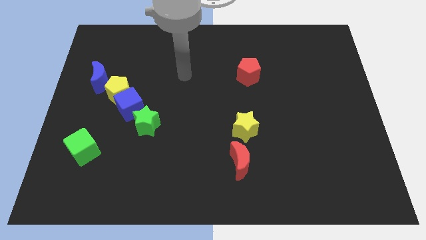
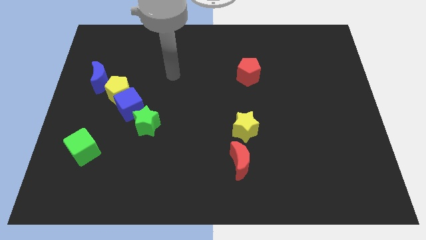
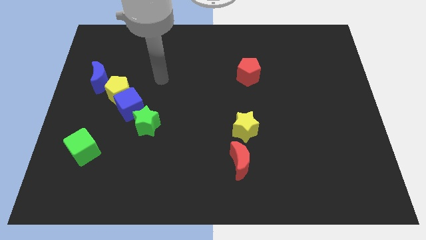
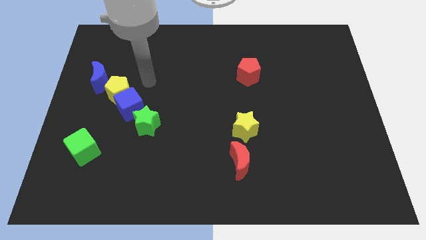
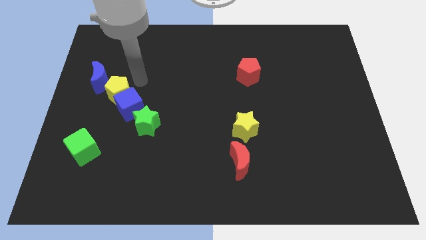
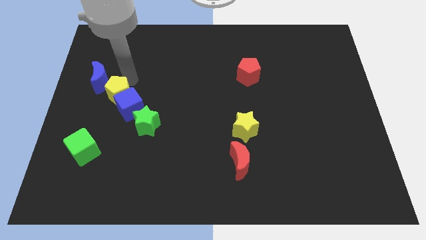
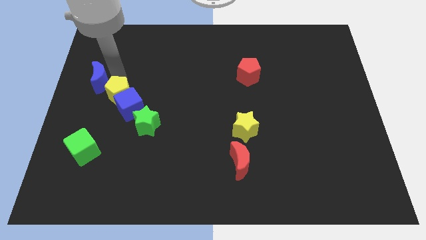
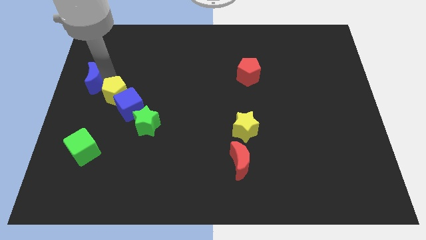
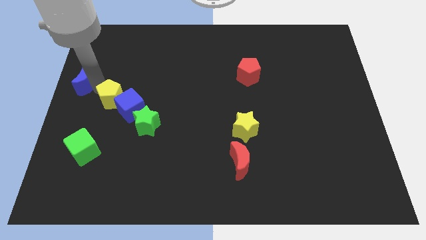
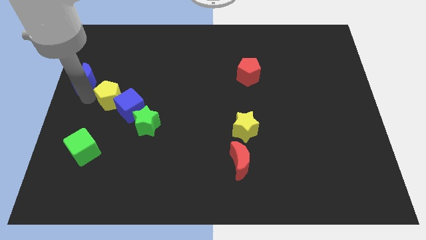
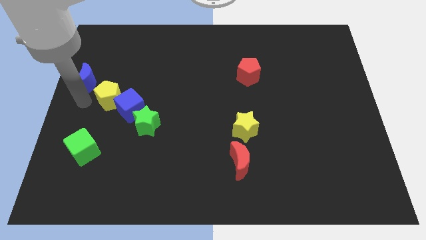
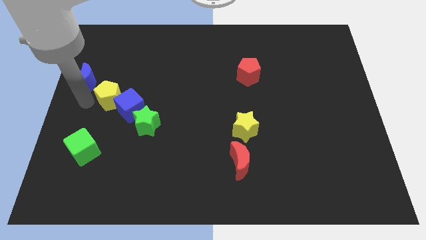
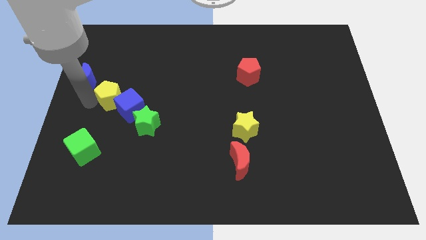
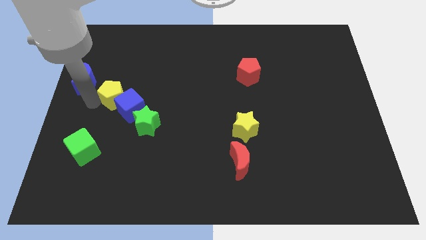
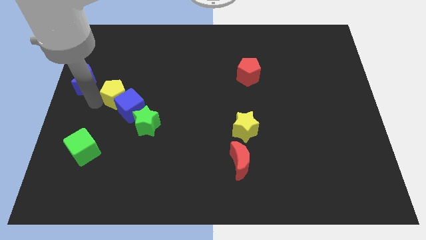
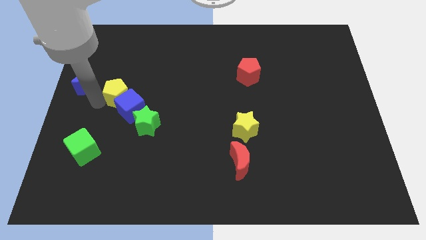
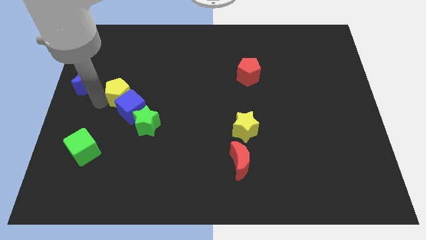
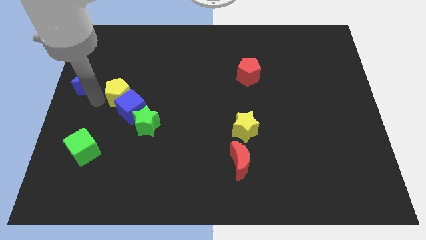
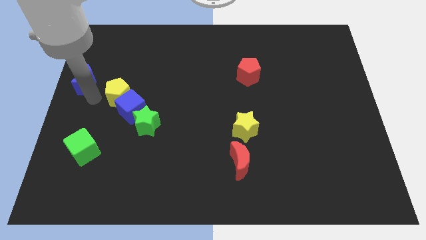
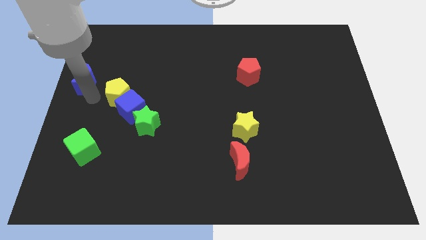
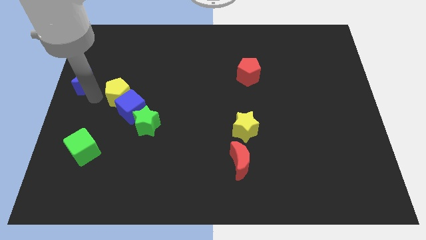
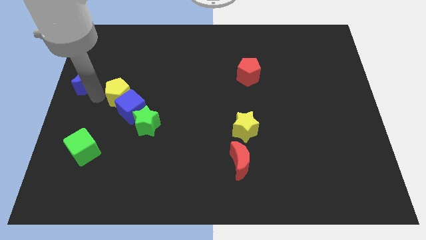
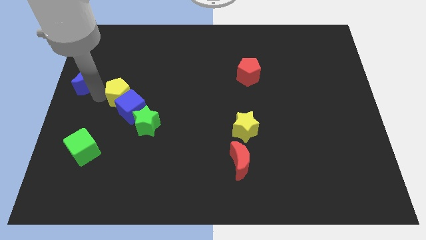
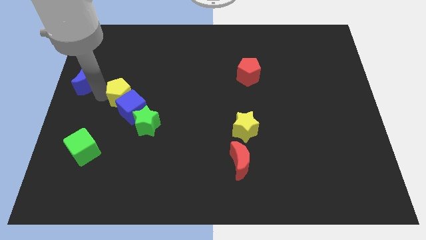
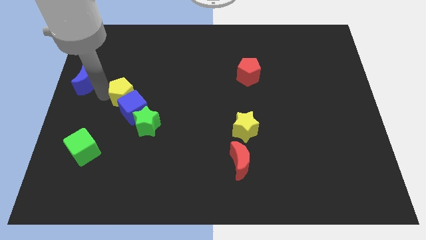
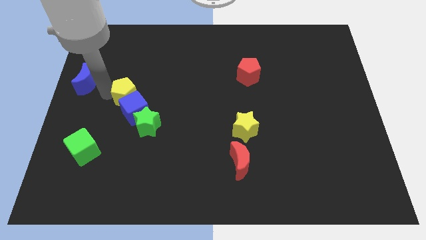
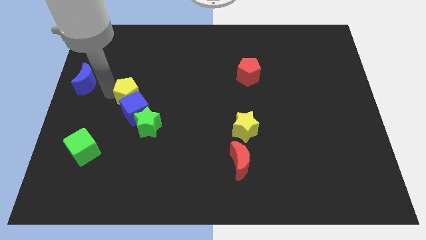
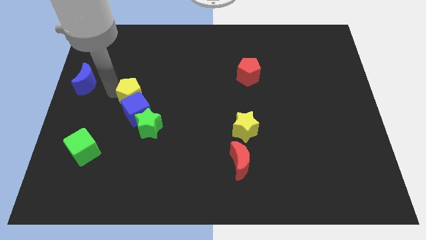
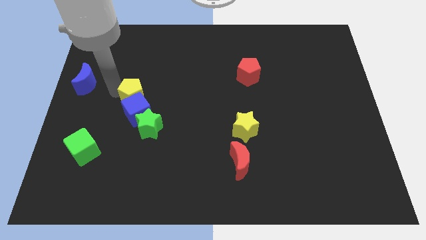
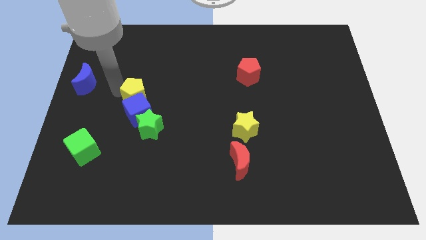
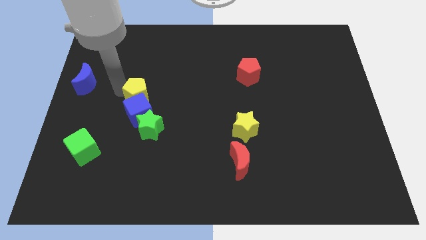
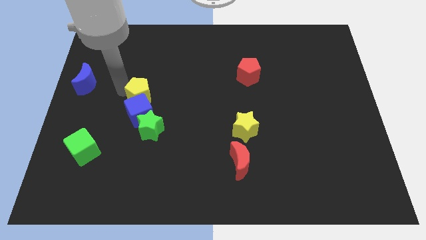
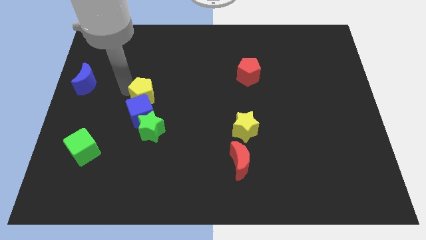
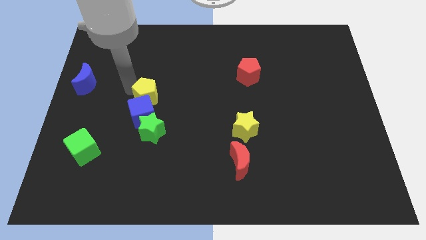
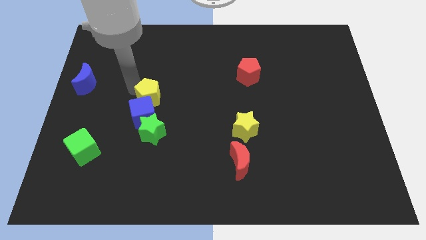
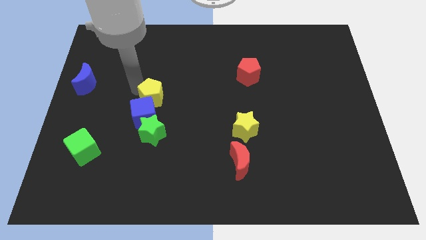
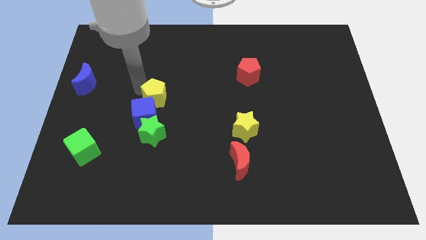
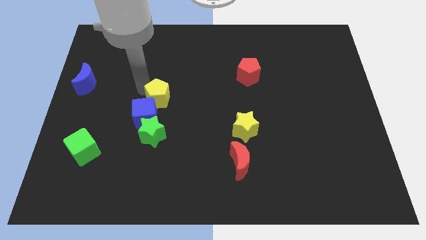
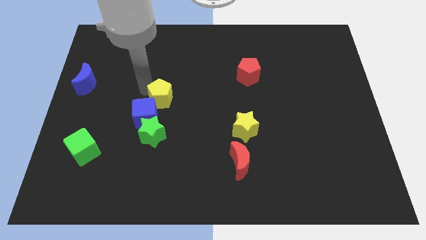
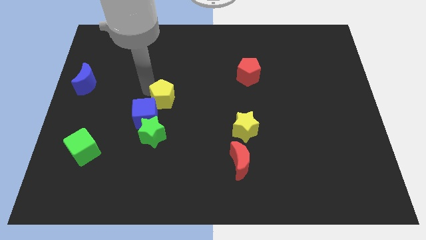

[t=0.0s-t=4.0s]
push the yellow pentagon a little downwards and to the right diagonally

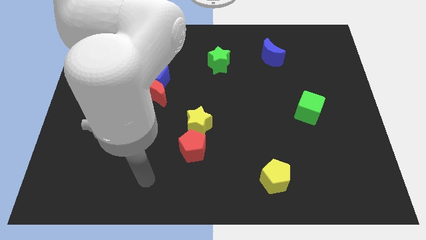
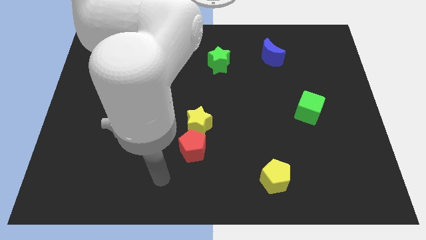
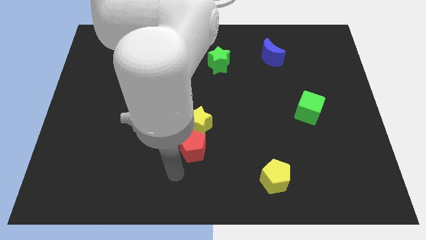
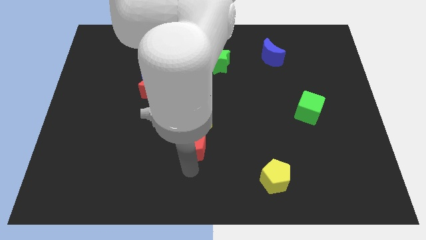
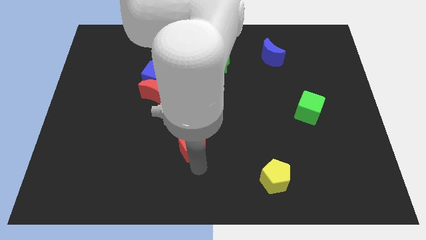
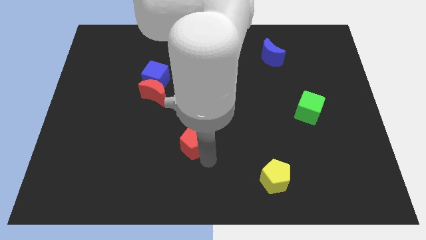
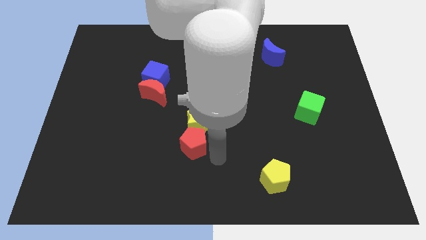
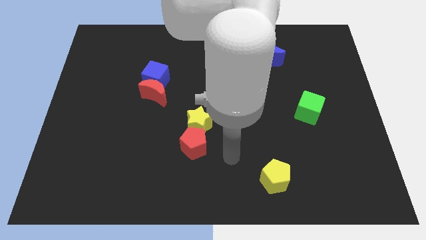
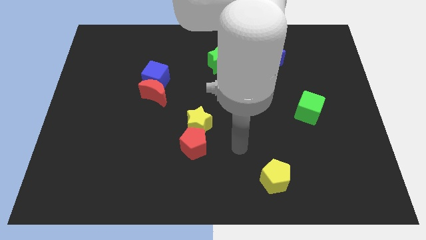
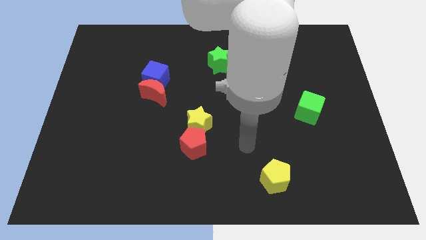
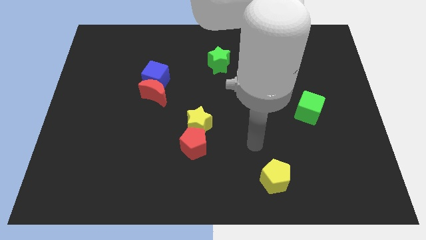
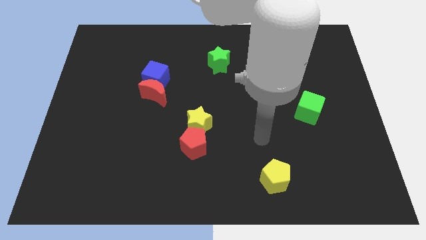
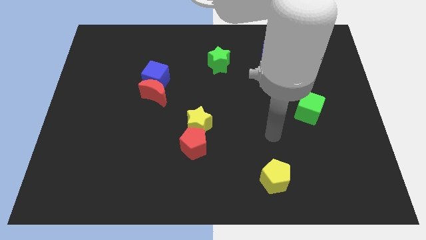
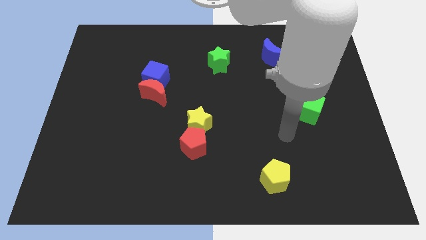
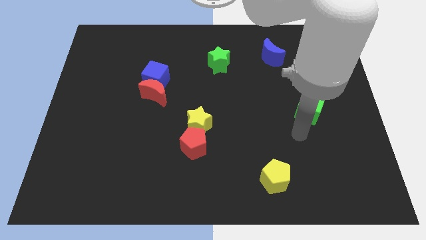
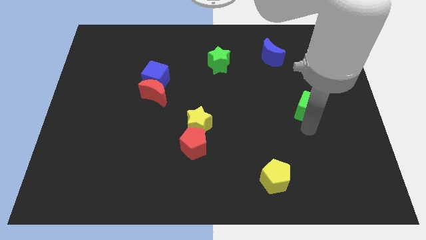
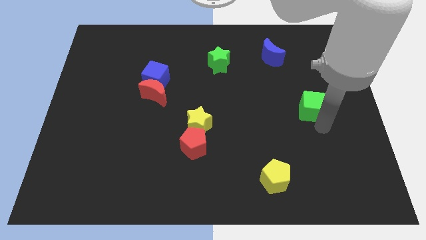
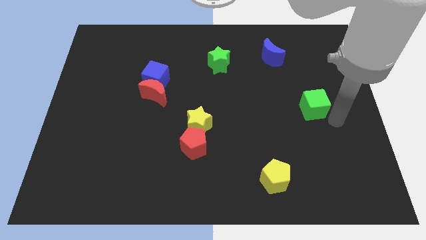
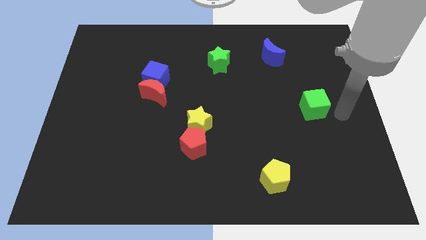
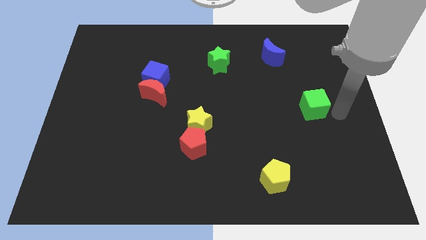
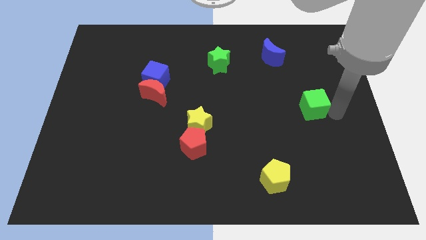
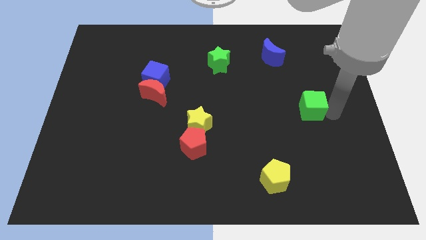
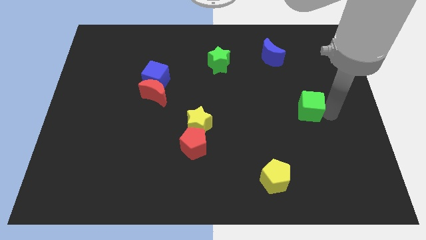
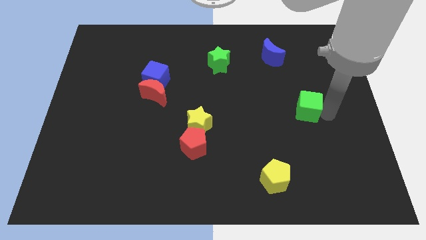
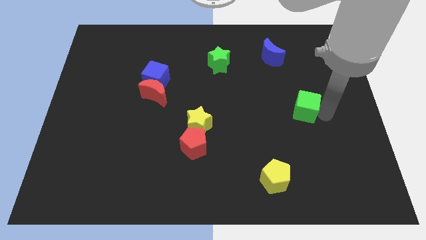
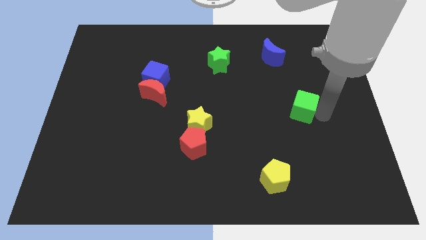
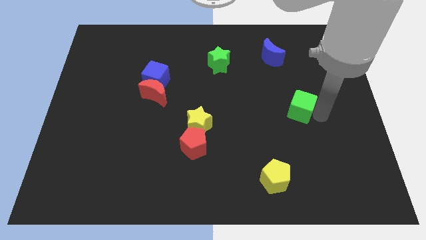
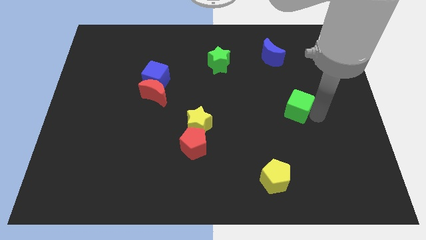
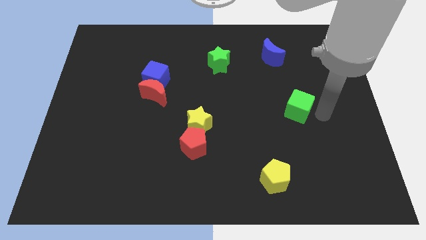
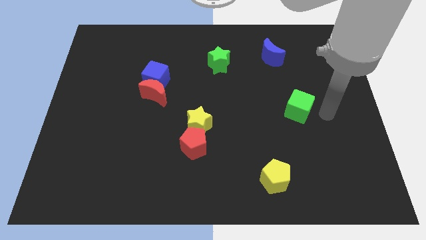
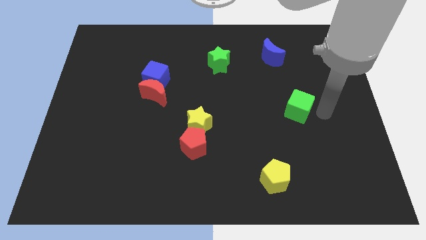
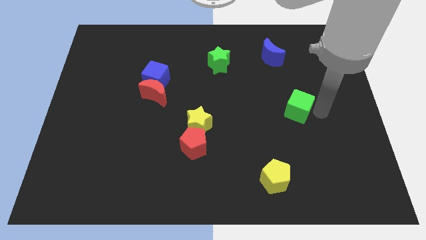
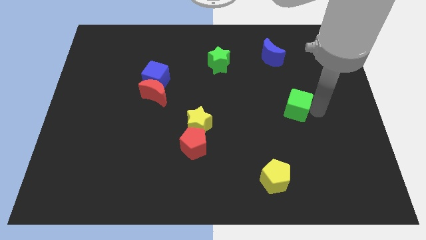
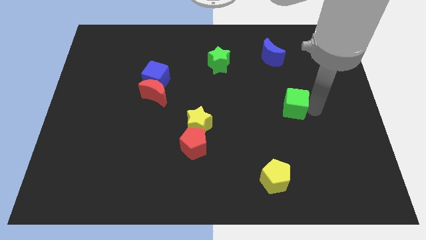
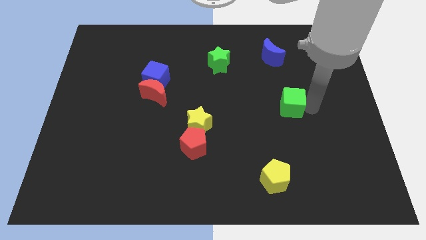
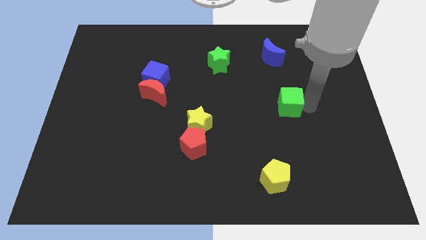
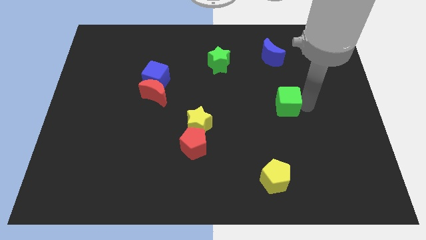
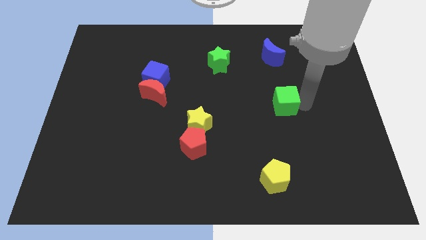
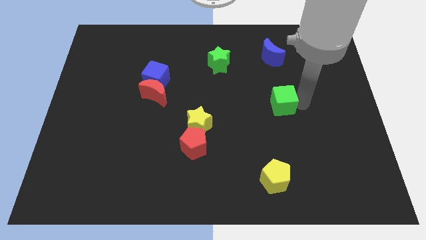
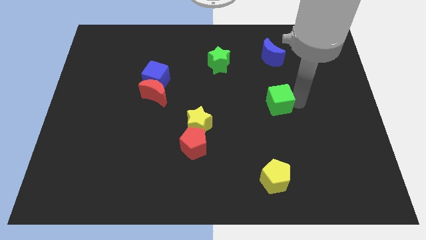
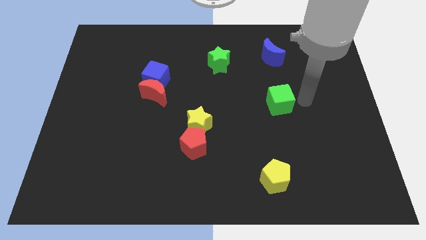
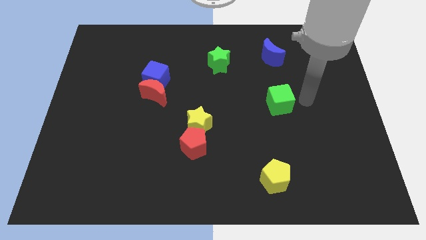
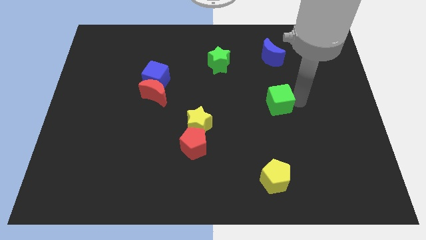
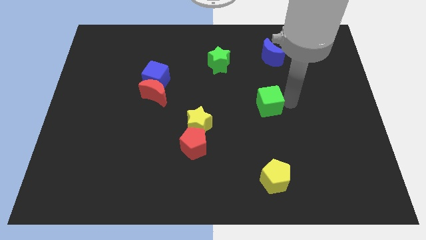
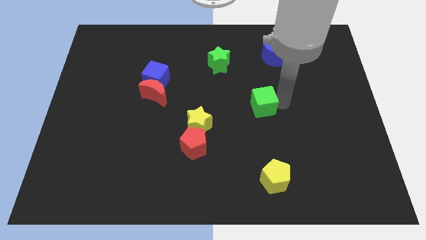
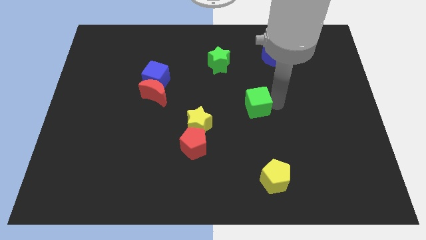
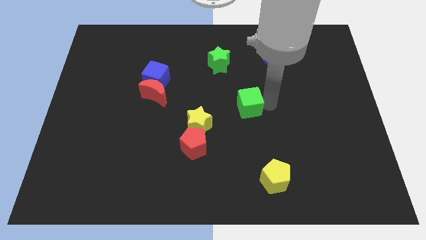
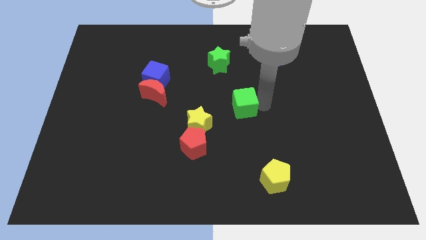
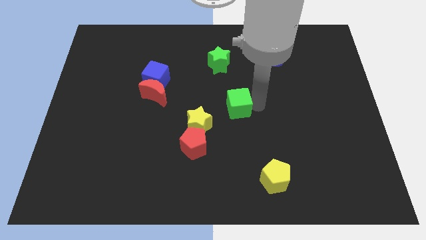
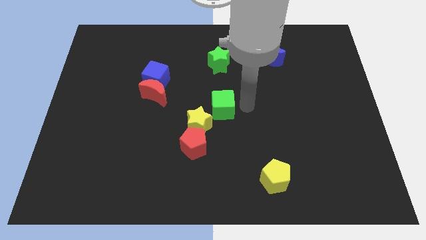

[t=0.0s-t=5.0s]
slide the green cube to the left
